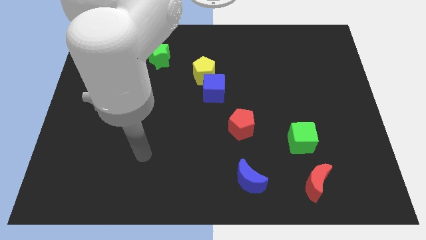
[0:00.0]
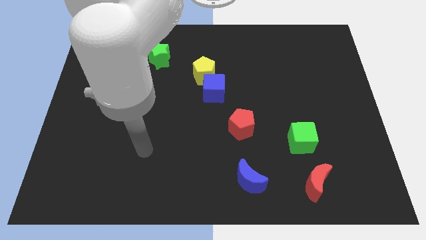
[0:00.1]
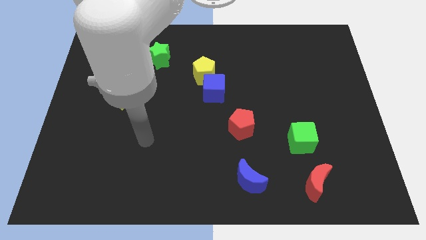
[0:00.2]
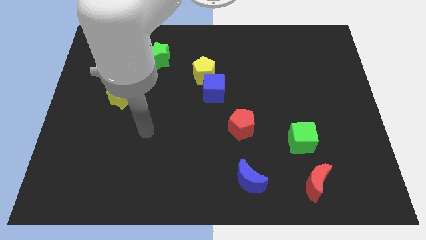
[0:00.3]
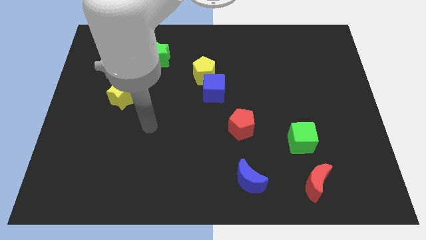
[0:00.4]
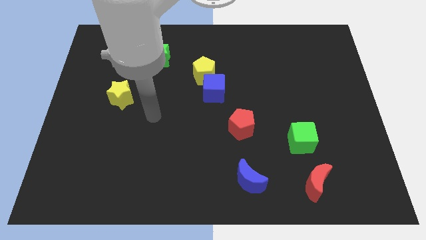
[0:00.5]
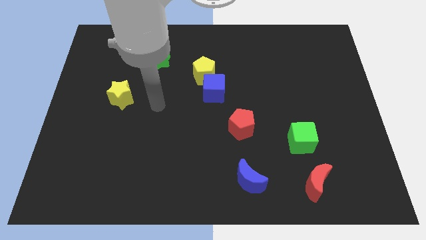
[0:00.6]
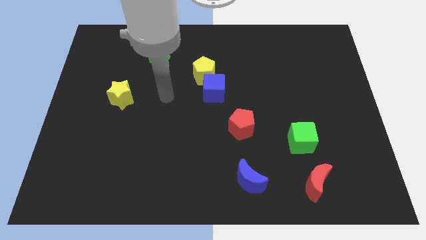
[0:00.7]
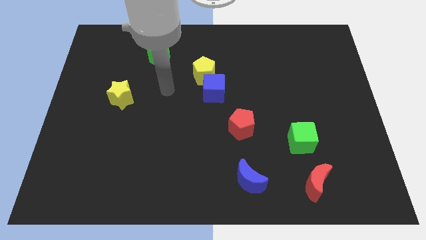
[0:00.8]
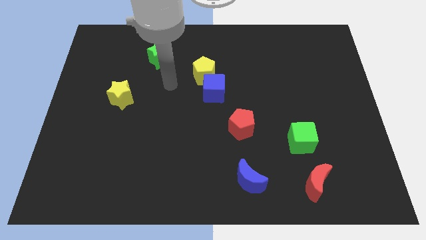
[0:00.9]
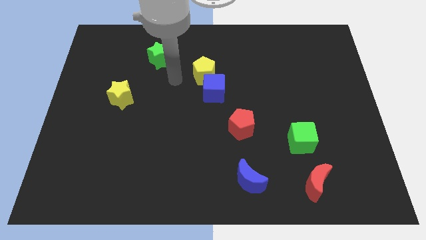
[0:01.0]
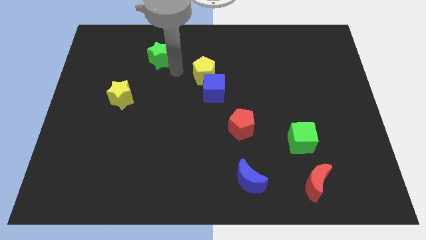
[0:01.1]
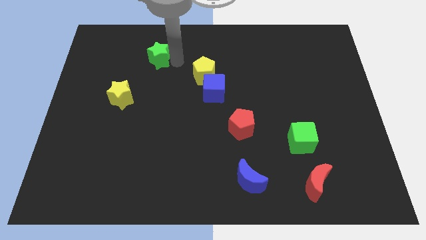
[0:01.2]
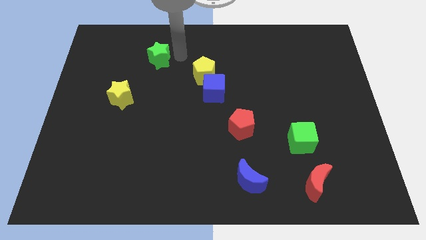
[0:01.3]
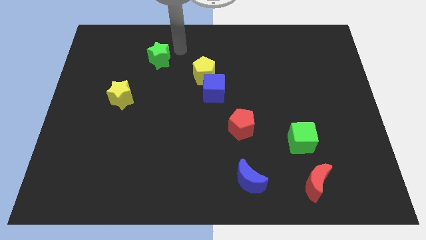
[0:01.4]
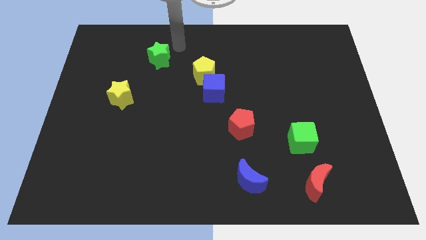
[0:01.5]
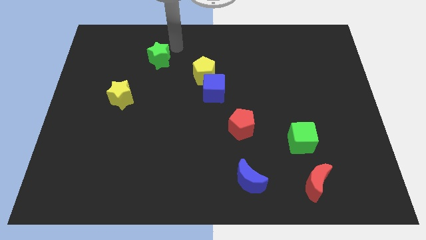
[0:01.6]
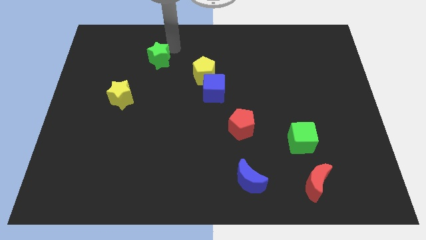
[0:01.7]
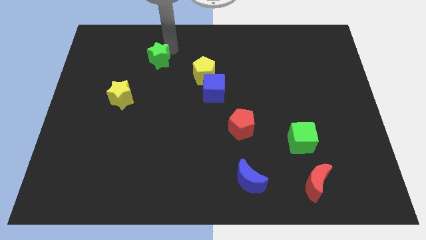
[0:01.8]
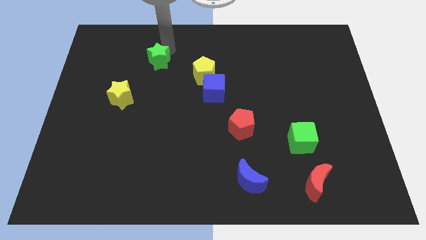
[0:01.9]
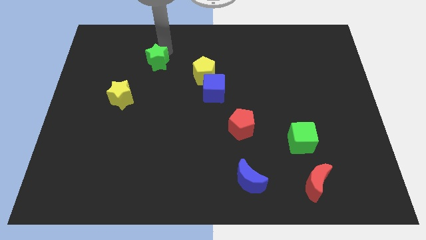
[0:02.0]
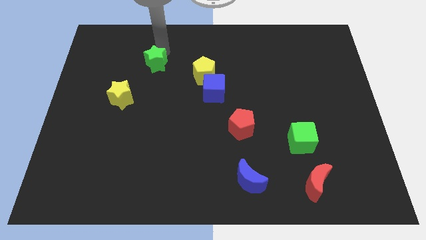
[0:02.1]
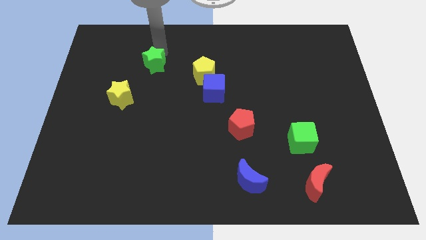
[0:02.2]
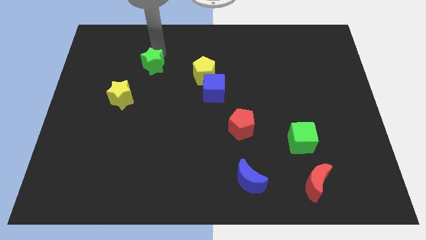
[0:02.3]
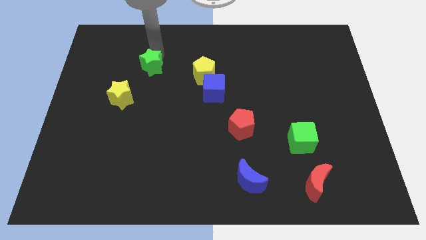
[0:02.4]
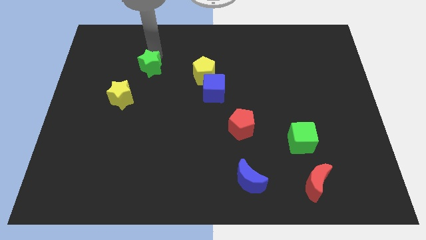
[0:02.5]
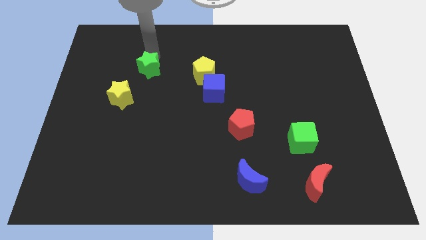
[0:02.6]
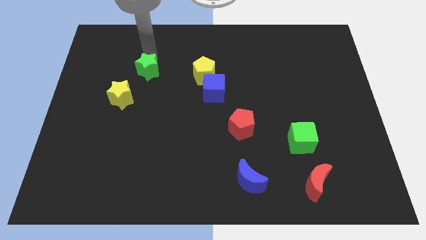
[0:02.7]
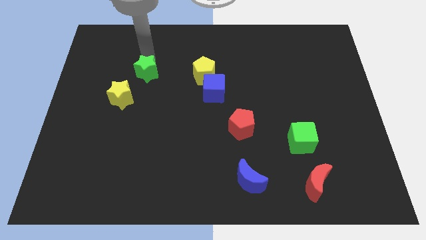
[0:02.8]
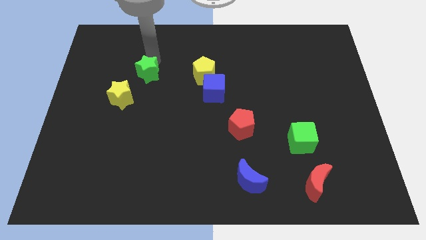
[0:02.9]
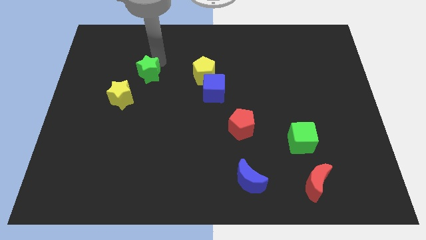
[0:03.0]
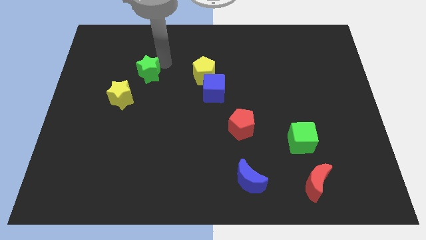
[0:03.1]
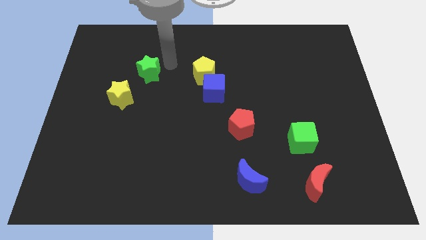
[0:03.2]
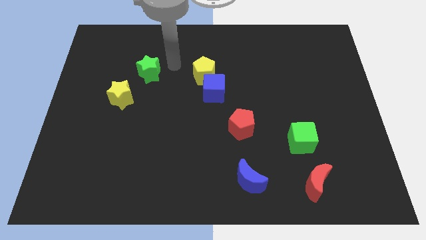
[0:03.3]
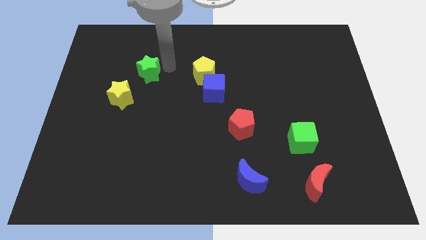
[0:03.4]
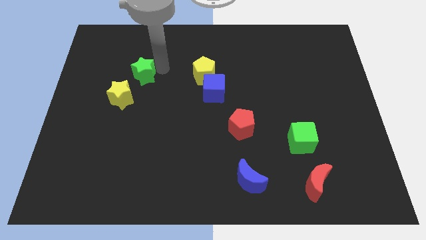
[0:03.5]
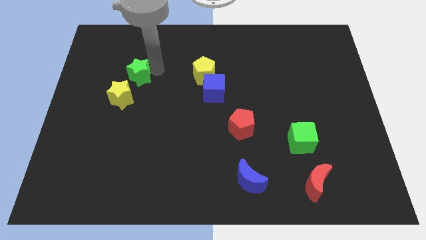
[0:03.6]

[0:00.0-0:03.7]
push the green star diagonally down and to the left somewhat

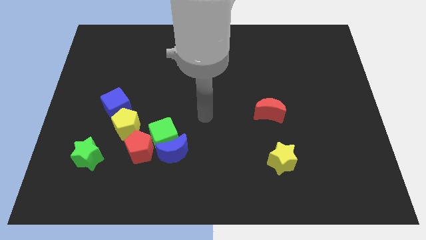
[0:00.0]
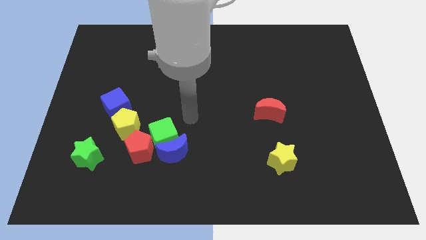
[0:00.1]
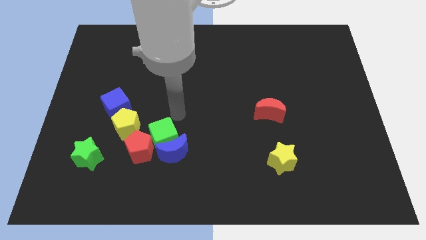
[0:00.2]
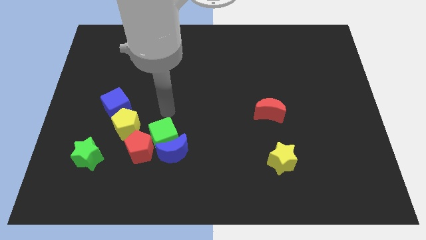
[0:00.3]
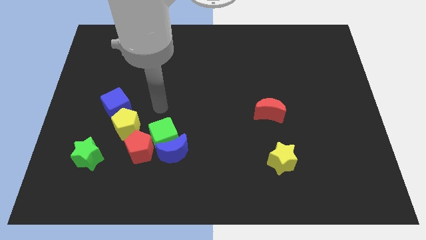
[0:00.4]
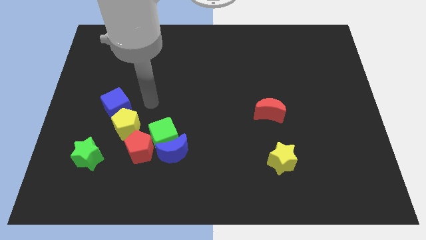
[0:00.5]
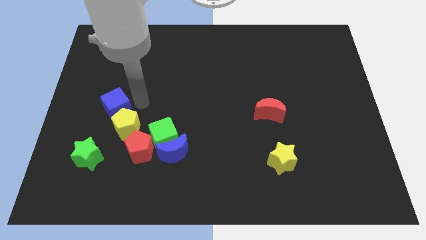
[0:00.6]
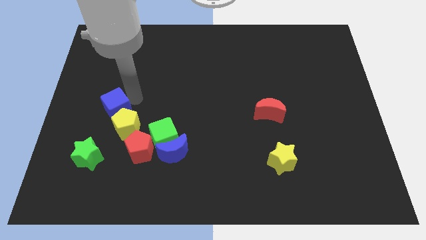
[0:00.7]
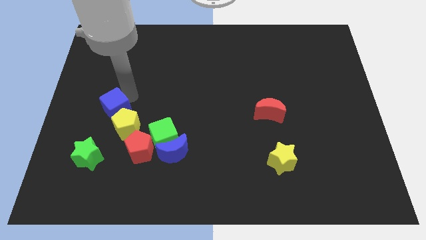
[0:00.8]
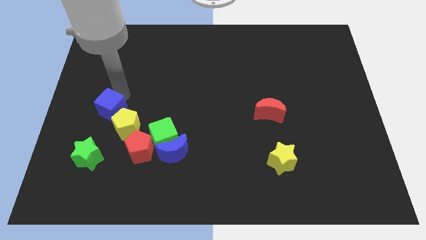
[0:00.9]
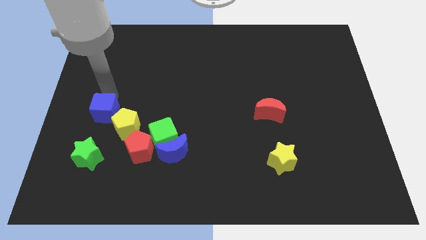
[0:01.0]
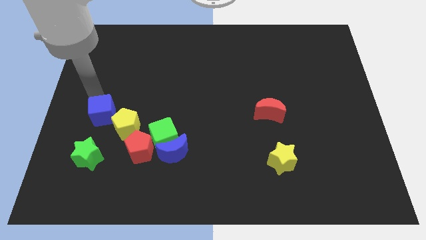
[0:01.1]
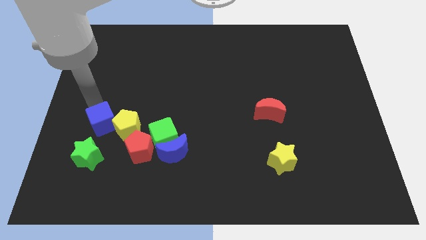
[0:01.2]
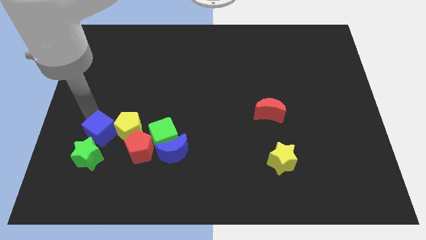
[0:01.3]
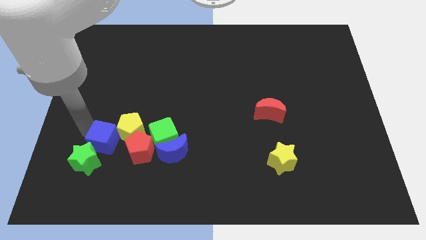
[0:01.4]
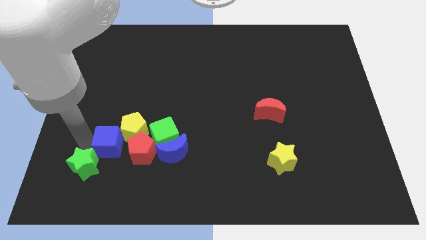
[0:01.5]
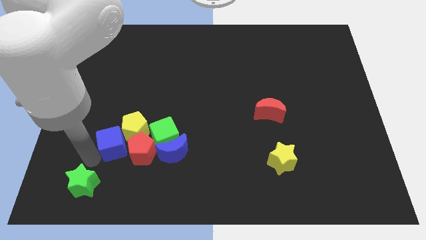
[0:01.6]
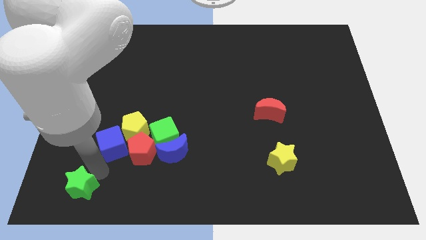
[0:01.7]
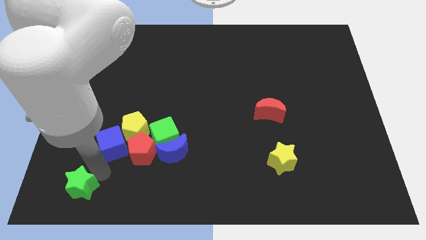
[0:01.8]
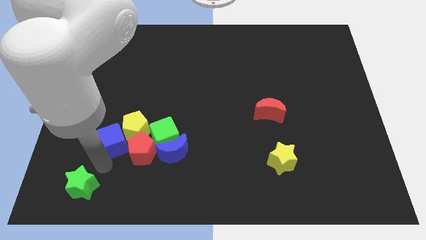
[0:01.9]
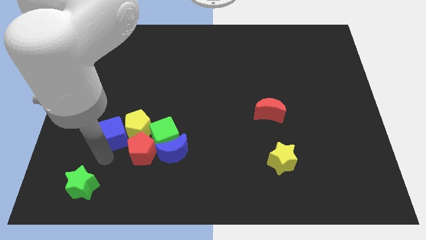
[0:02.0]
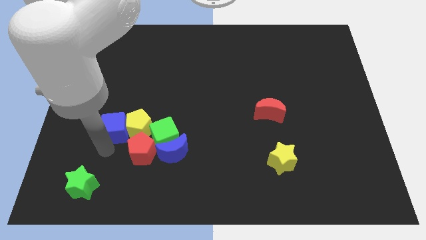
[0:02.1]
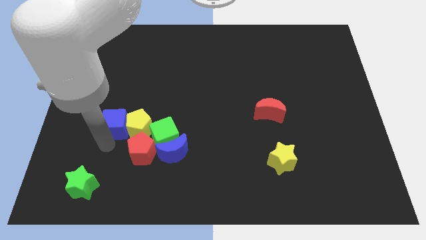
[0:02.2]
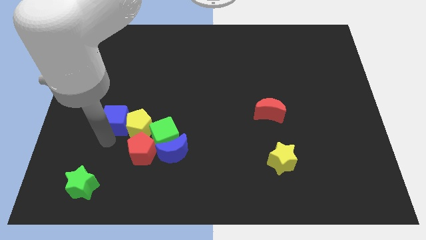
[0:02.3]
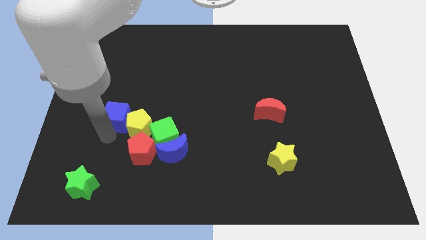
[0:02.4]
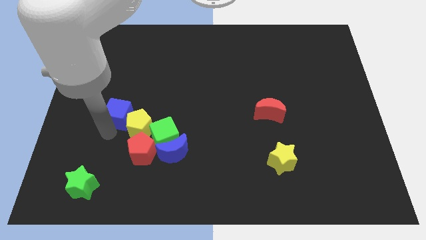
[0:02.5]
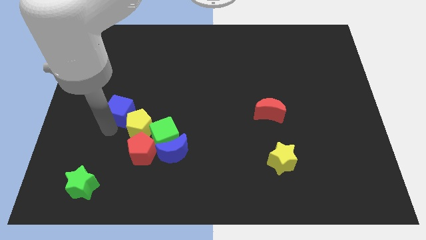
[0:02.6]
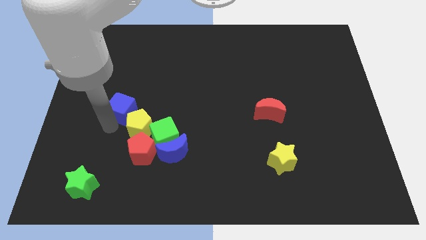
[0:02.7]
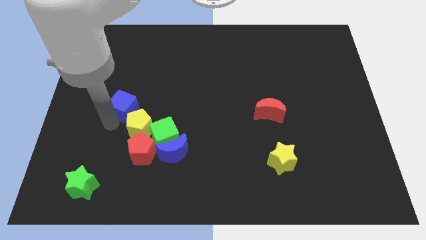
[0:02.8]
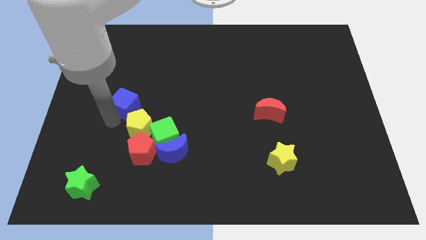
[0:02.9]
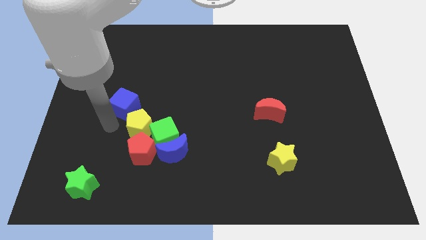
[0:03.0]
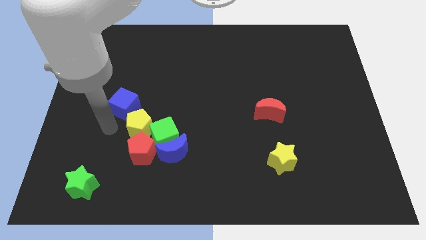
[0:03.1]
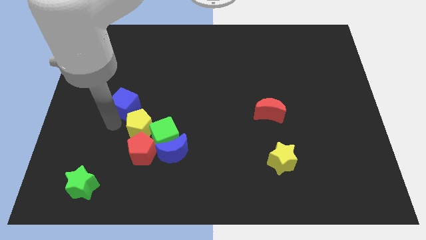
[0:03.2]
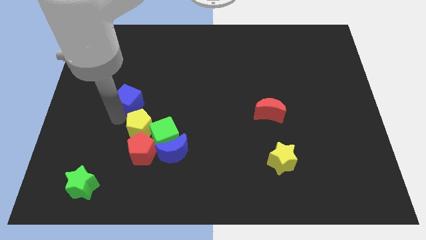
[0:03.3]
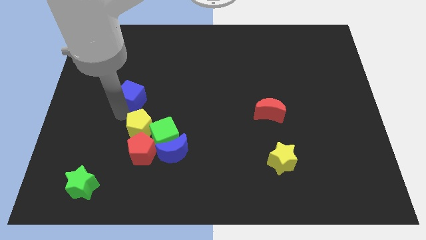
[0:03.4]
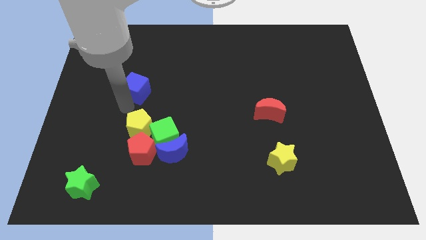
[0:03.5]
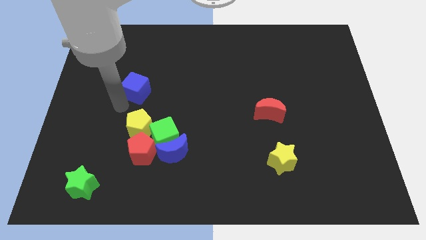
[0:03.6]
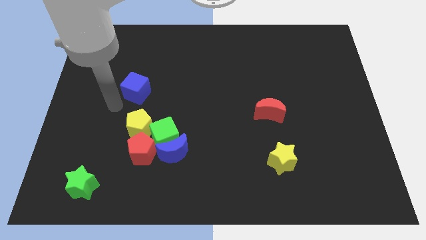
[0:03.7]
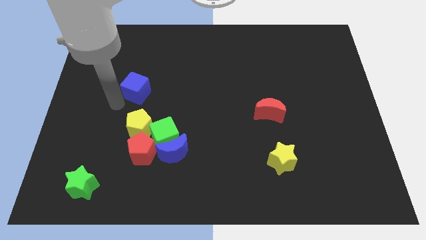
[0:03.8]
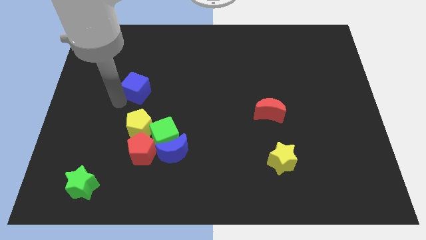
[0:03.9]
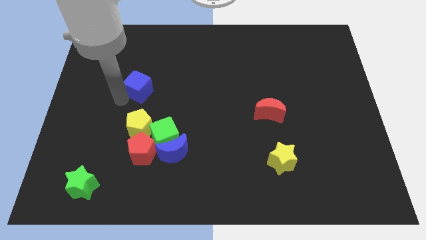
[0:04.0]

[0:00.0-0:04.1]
push the blue cube slightly diagonally upwards and to the right

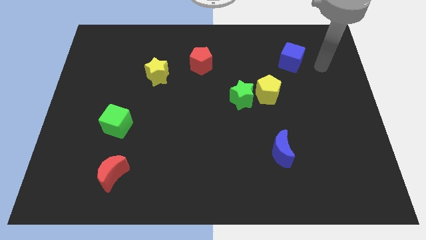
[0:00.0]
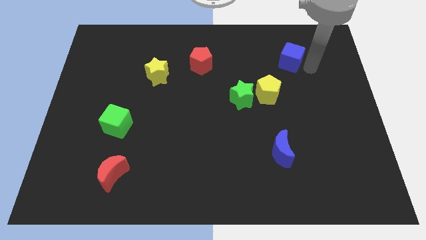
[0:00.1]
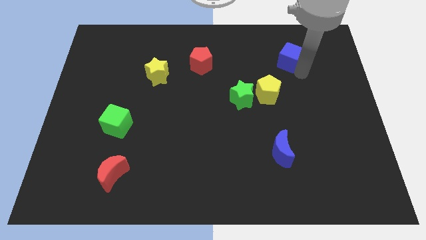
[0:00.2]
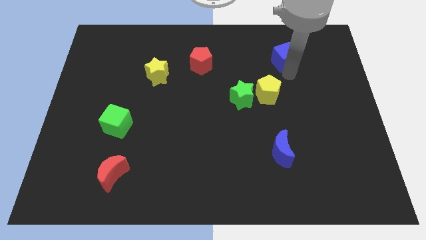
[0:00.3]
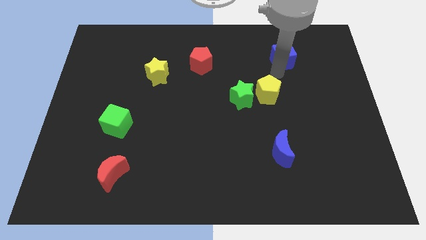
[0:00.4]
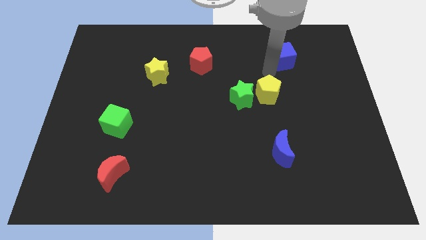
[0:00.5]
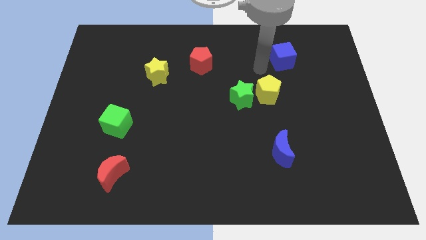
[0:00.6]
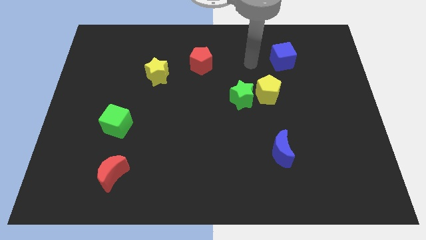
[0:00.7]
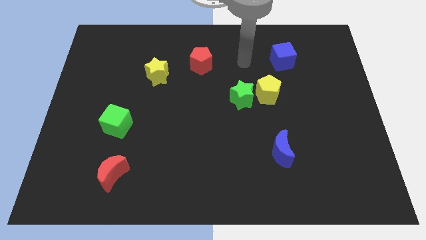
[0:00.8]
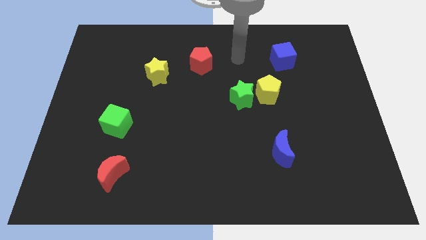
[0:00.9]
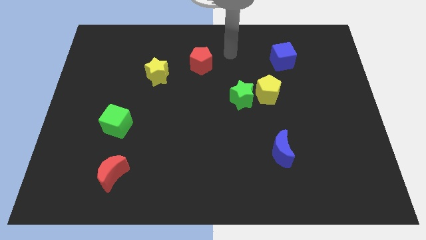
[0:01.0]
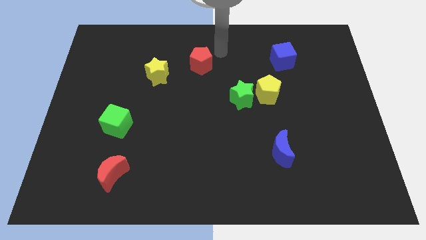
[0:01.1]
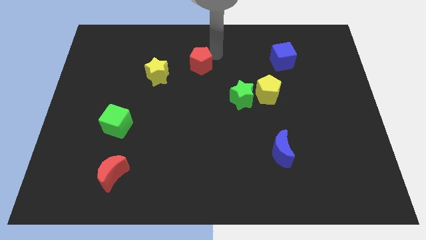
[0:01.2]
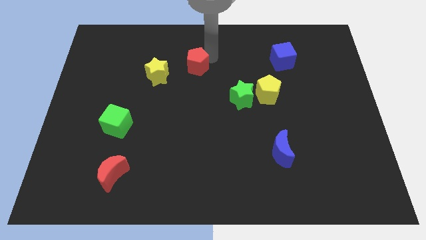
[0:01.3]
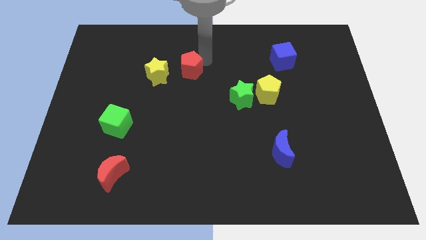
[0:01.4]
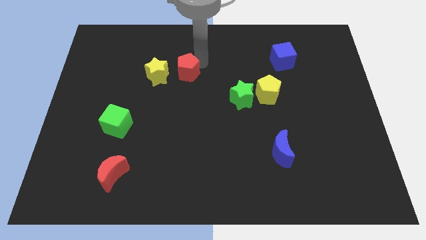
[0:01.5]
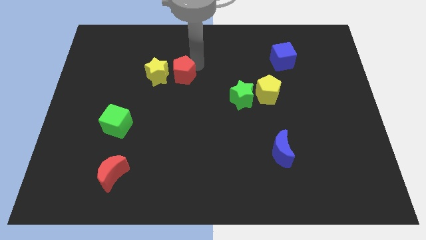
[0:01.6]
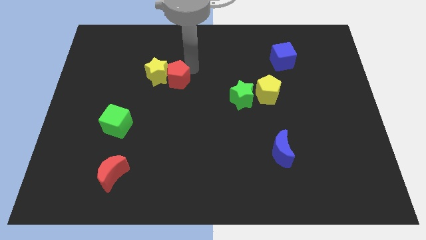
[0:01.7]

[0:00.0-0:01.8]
move the red pentagon somewhat down and to the left diagonally
